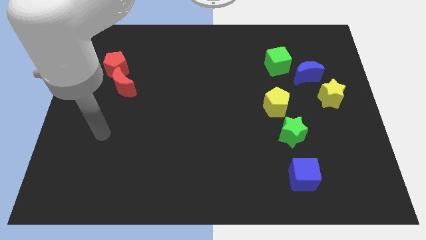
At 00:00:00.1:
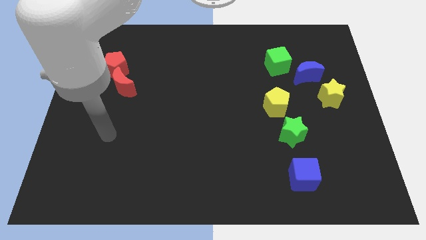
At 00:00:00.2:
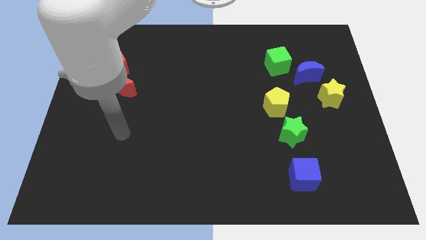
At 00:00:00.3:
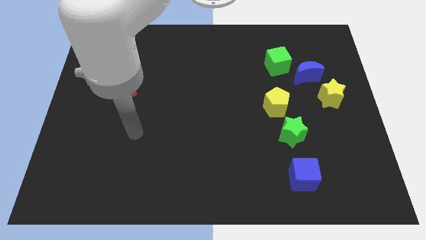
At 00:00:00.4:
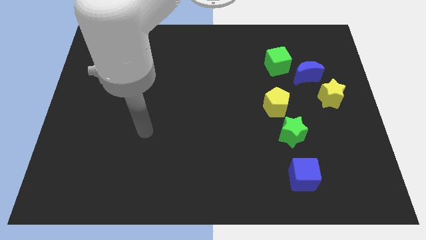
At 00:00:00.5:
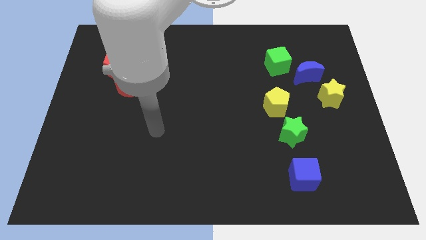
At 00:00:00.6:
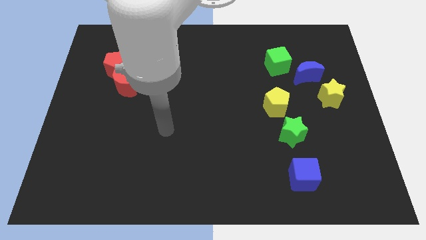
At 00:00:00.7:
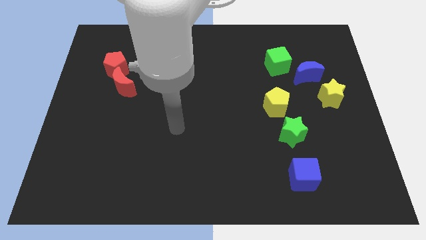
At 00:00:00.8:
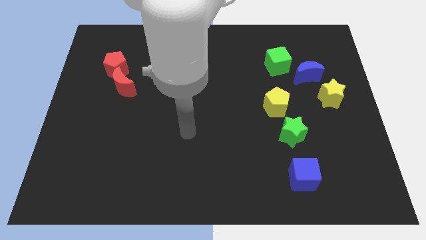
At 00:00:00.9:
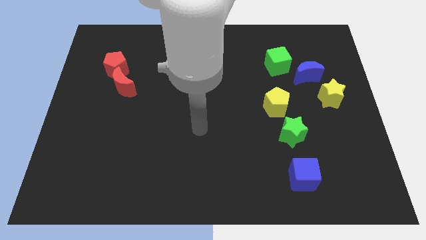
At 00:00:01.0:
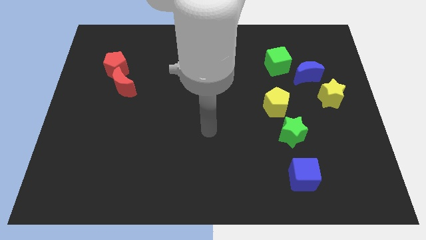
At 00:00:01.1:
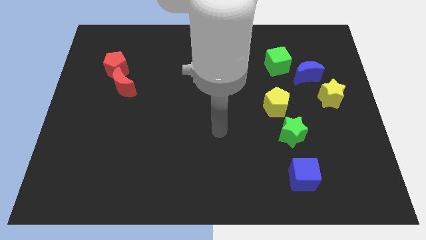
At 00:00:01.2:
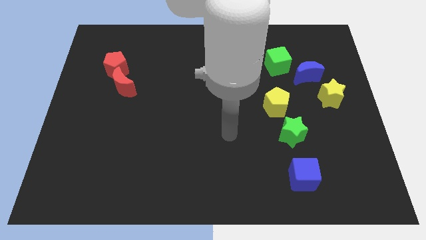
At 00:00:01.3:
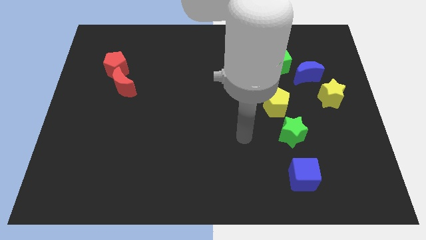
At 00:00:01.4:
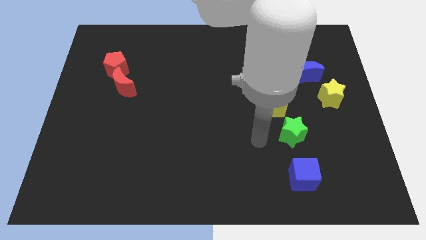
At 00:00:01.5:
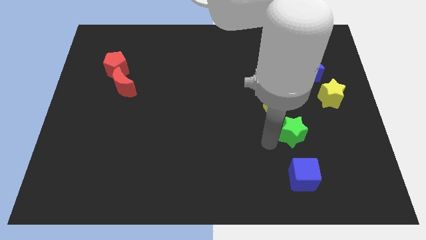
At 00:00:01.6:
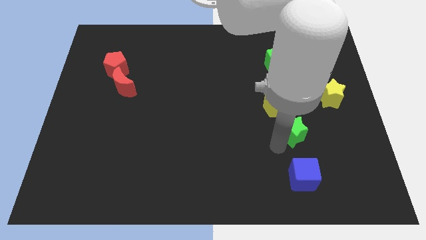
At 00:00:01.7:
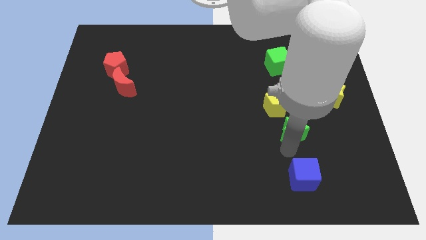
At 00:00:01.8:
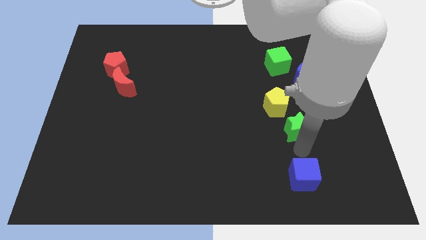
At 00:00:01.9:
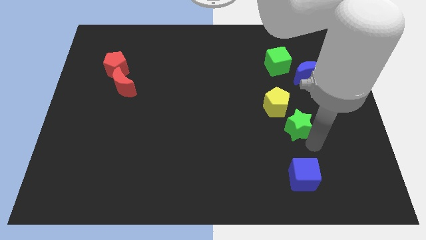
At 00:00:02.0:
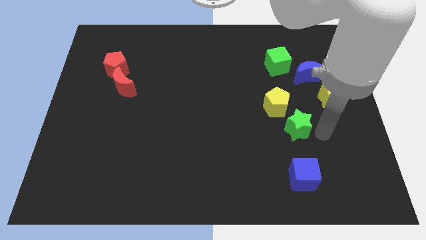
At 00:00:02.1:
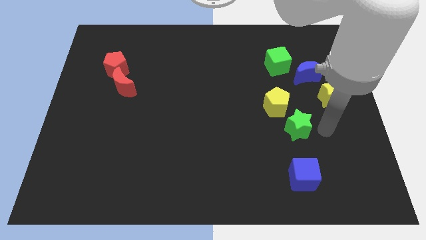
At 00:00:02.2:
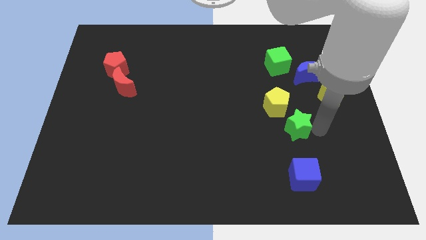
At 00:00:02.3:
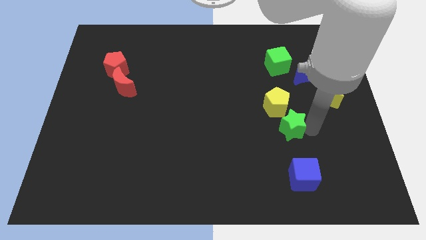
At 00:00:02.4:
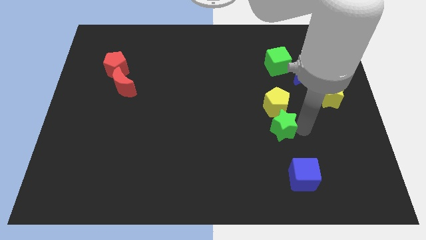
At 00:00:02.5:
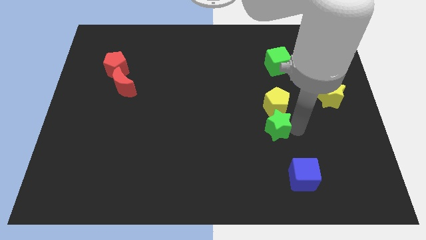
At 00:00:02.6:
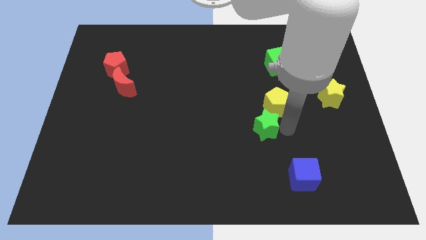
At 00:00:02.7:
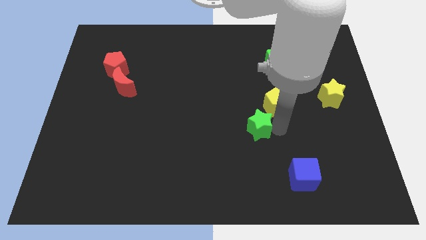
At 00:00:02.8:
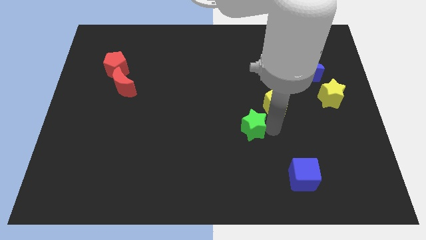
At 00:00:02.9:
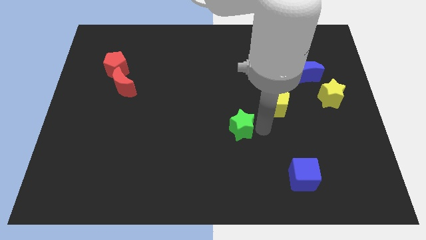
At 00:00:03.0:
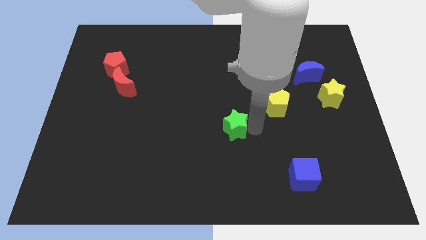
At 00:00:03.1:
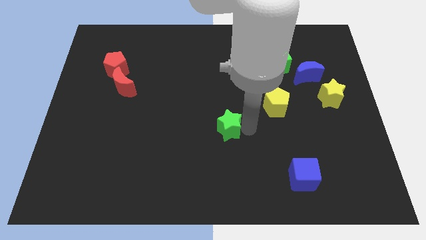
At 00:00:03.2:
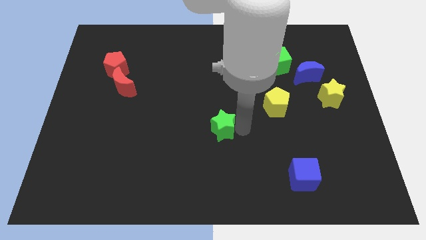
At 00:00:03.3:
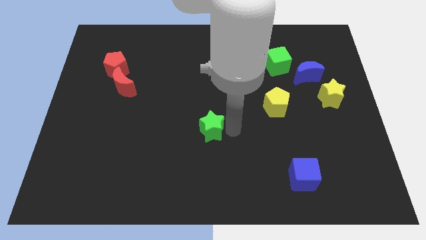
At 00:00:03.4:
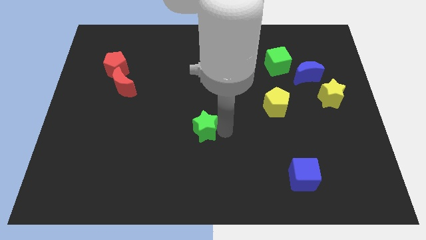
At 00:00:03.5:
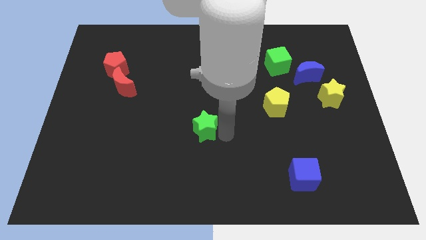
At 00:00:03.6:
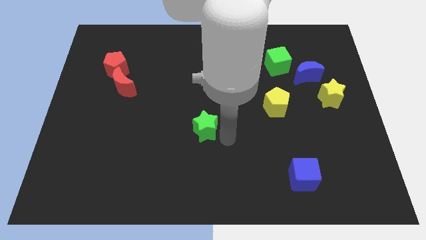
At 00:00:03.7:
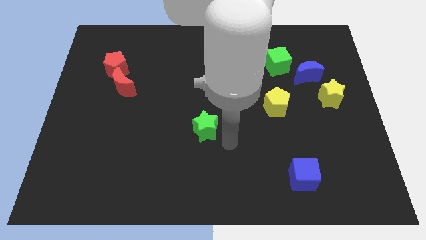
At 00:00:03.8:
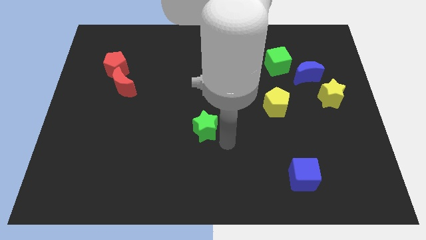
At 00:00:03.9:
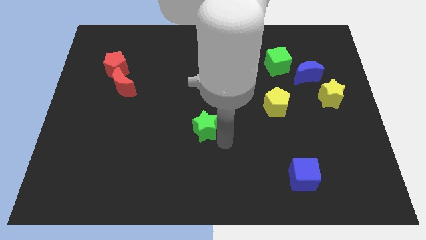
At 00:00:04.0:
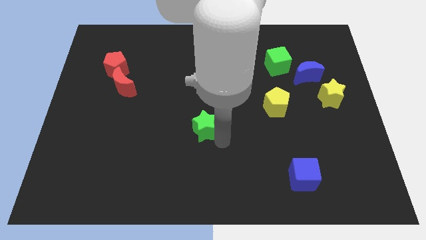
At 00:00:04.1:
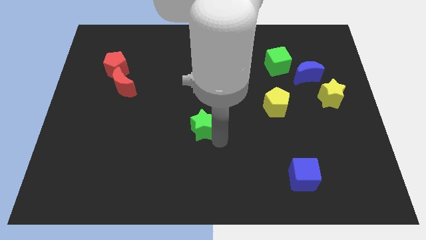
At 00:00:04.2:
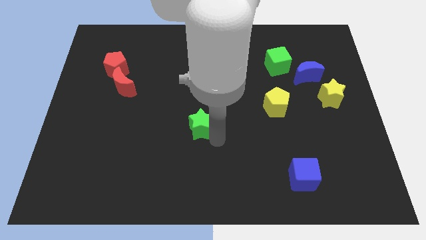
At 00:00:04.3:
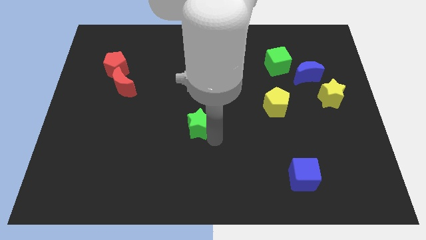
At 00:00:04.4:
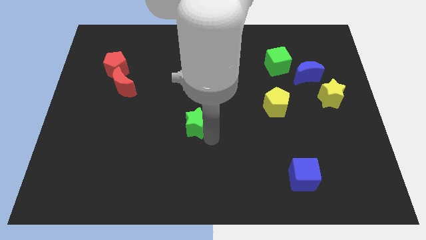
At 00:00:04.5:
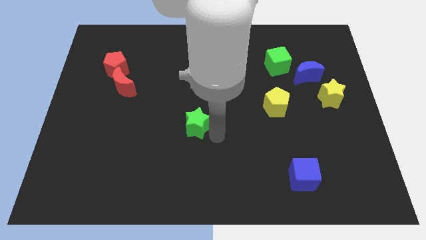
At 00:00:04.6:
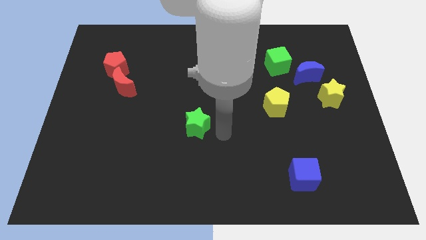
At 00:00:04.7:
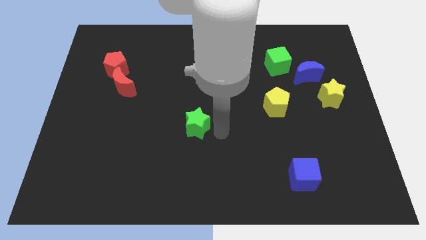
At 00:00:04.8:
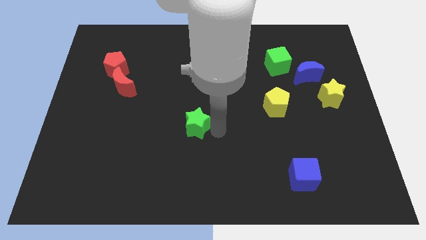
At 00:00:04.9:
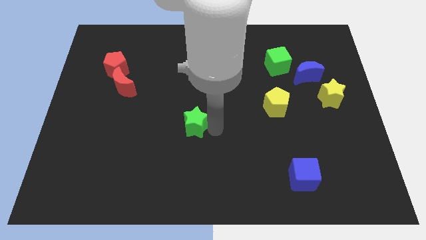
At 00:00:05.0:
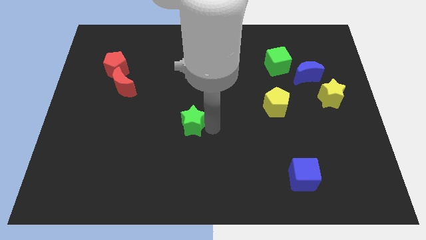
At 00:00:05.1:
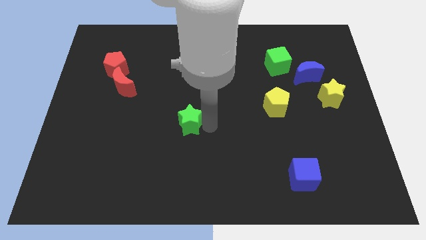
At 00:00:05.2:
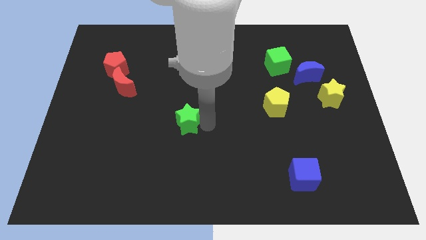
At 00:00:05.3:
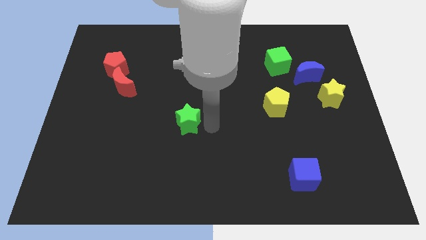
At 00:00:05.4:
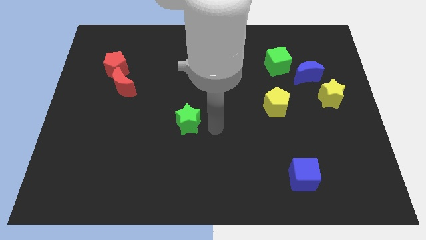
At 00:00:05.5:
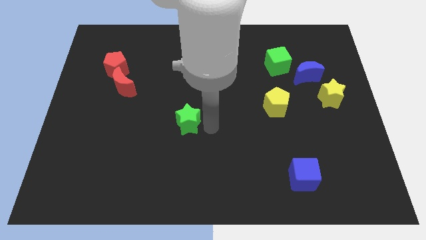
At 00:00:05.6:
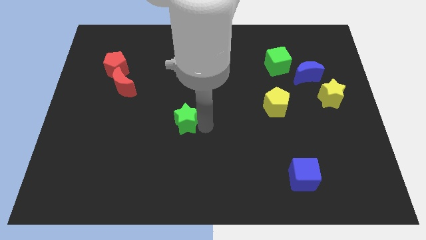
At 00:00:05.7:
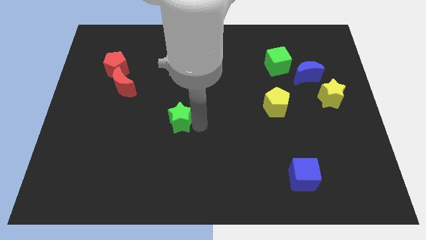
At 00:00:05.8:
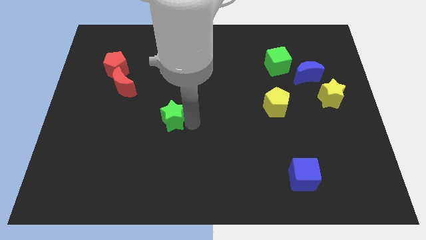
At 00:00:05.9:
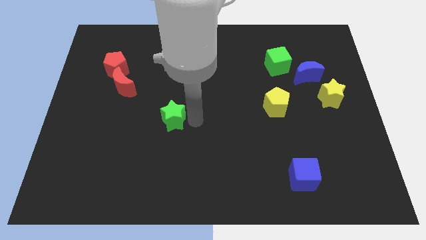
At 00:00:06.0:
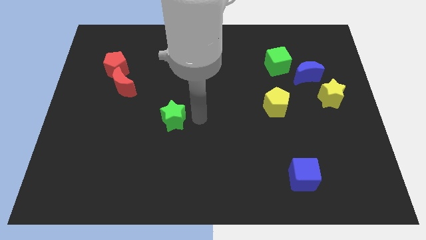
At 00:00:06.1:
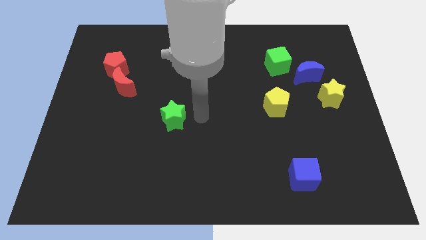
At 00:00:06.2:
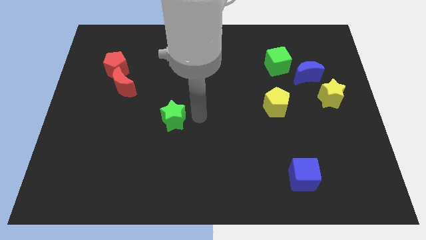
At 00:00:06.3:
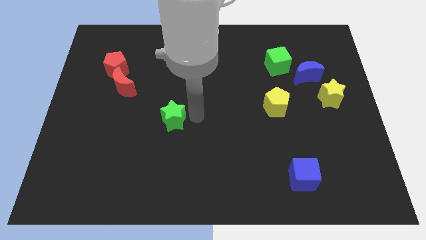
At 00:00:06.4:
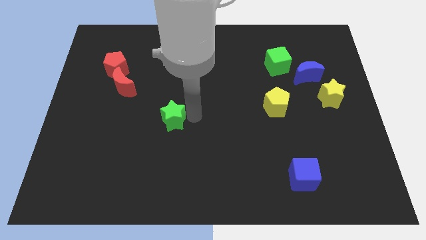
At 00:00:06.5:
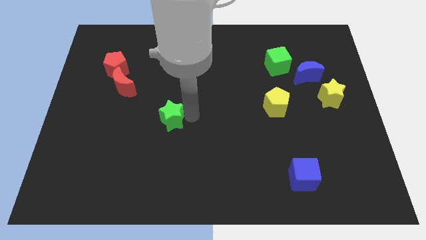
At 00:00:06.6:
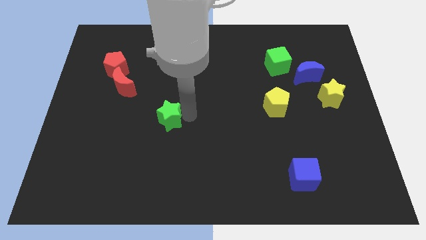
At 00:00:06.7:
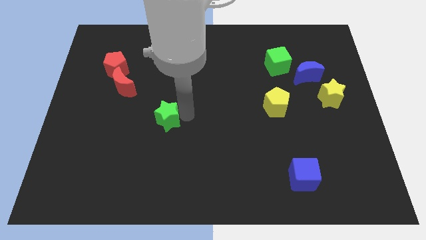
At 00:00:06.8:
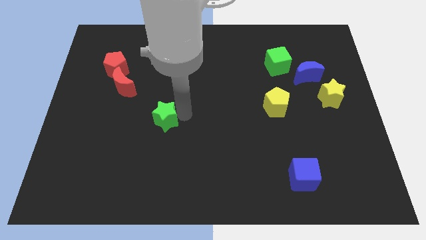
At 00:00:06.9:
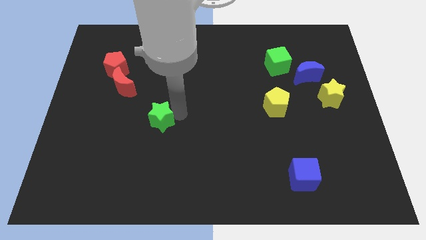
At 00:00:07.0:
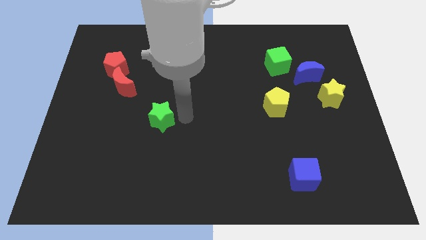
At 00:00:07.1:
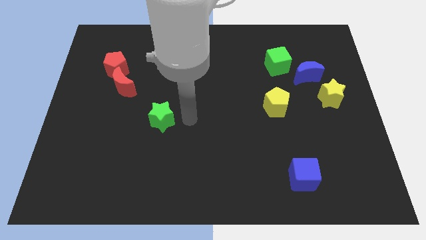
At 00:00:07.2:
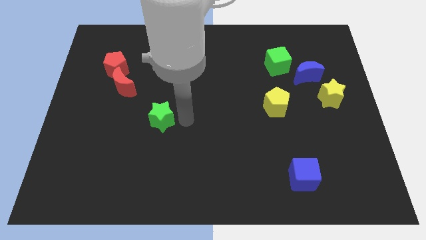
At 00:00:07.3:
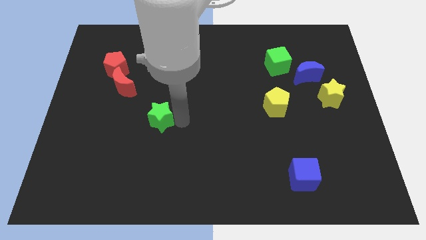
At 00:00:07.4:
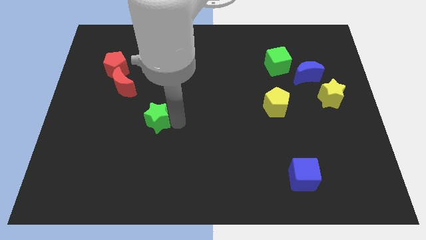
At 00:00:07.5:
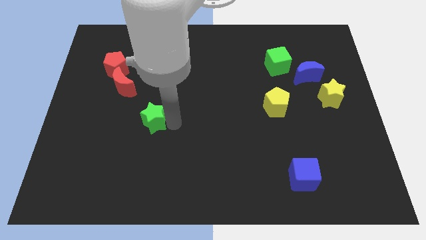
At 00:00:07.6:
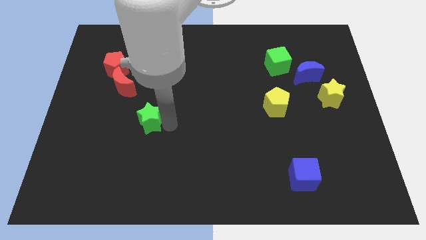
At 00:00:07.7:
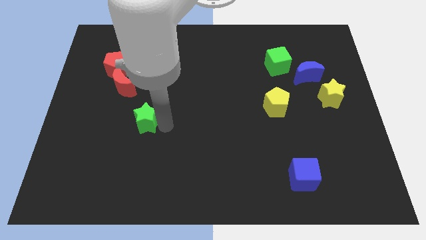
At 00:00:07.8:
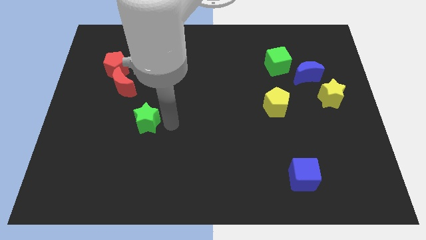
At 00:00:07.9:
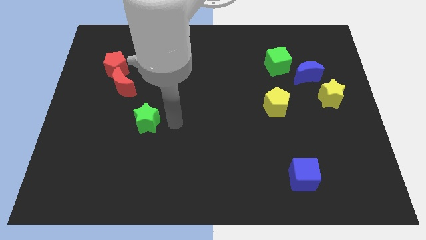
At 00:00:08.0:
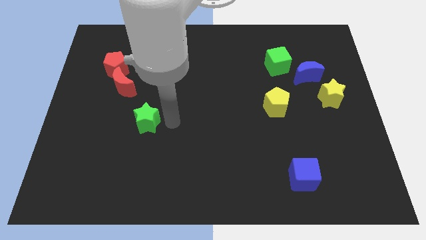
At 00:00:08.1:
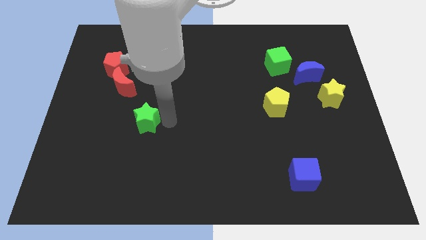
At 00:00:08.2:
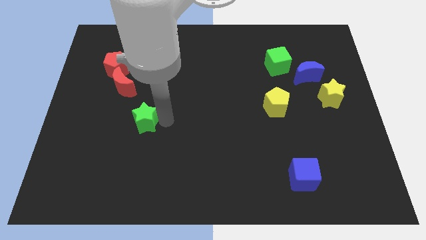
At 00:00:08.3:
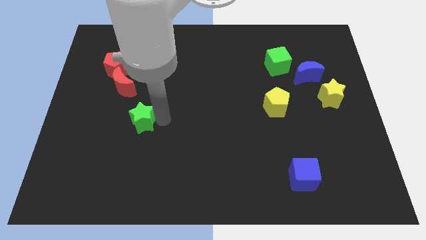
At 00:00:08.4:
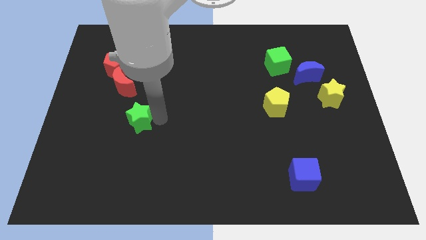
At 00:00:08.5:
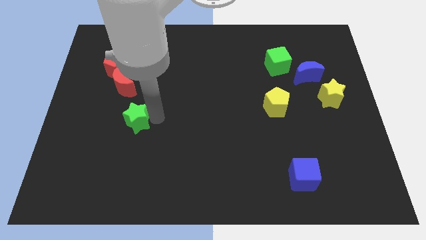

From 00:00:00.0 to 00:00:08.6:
move the green star to the bottom of the red moon
